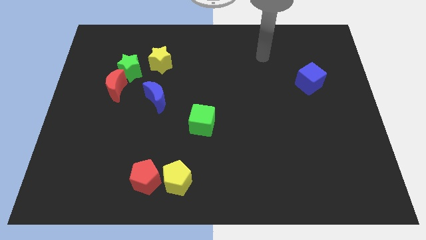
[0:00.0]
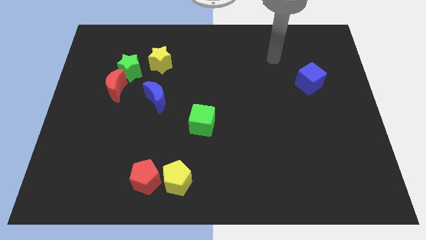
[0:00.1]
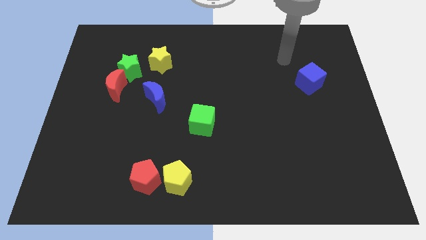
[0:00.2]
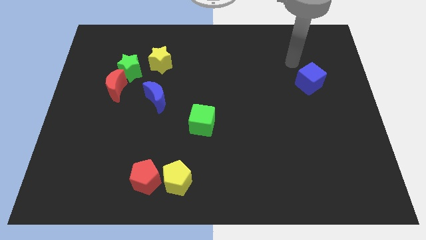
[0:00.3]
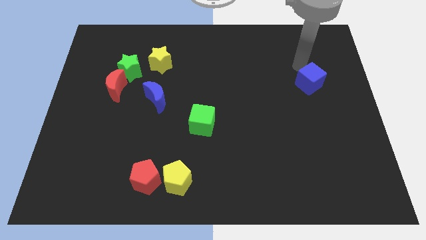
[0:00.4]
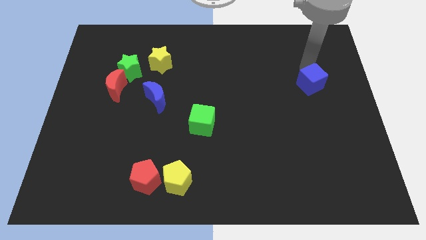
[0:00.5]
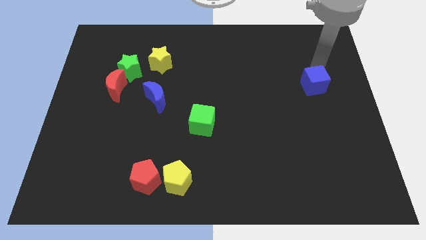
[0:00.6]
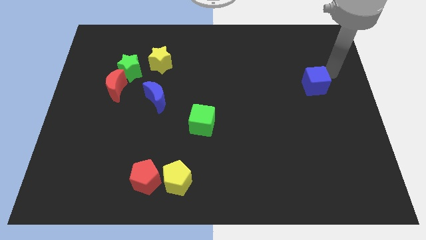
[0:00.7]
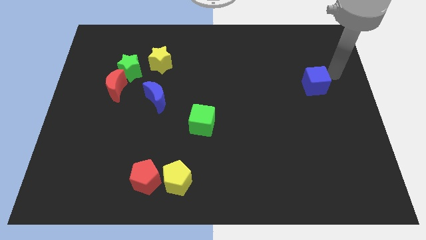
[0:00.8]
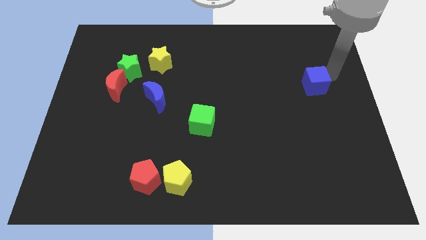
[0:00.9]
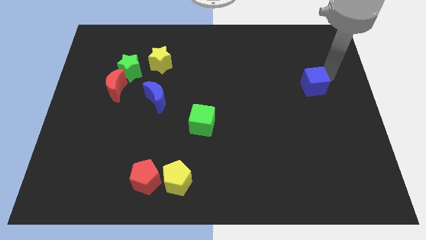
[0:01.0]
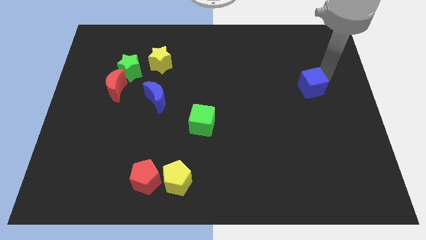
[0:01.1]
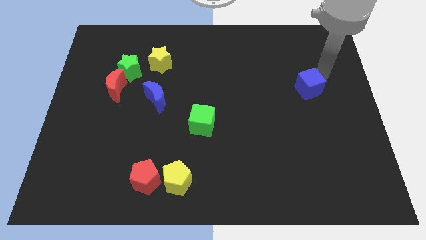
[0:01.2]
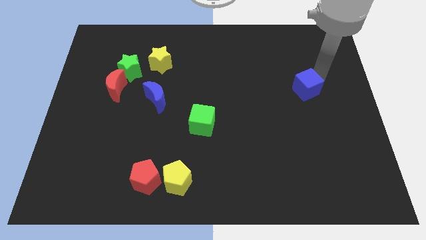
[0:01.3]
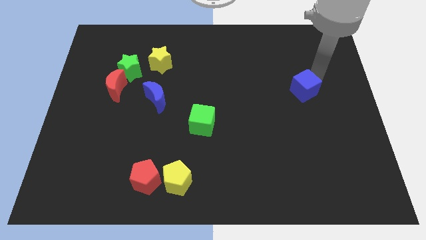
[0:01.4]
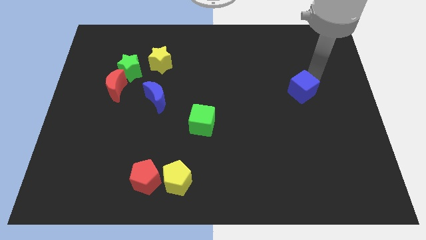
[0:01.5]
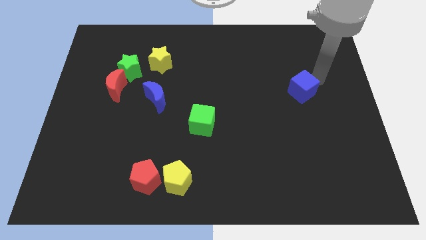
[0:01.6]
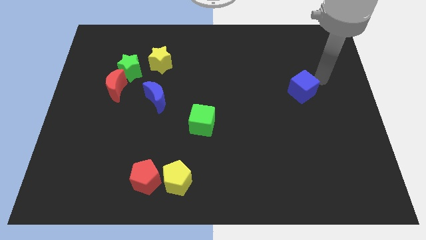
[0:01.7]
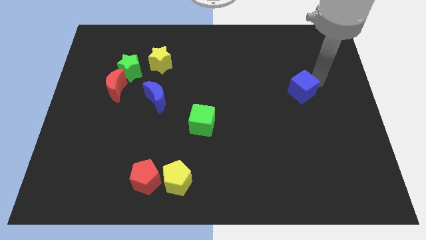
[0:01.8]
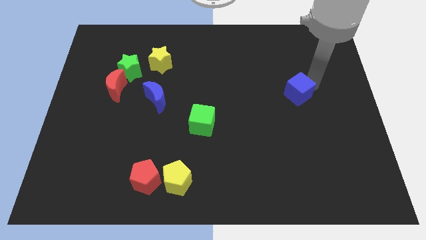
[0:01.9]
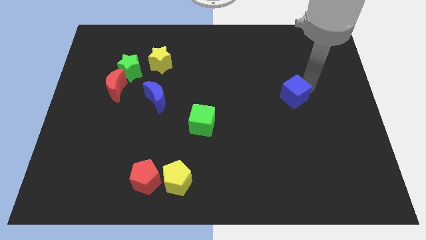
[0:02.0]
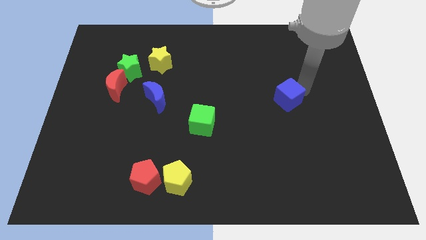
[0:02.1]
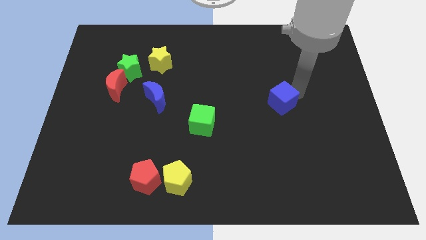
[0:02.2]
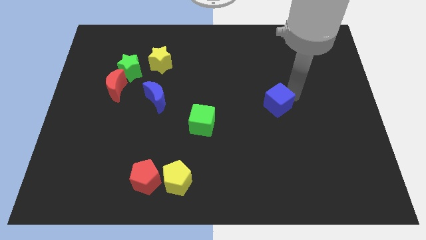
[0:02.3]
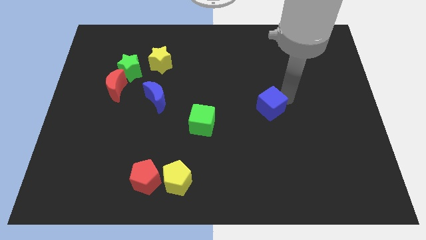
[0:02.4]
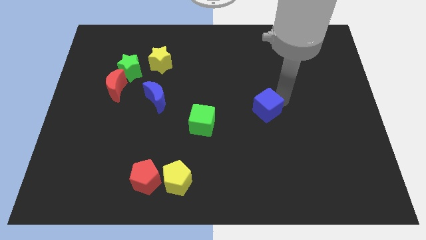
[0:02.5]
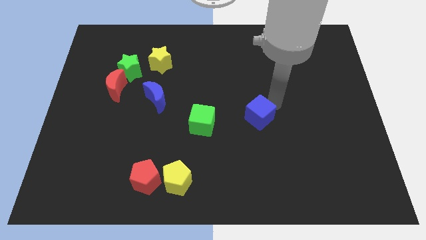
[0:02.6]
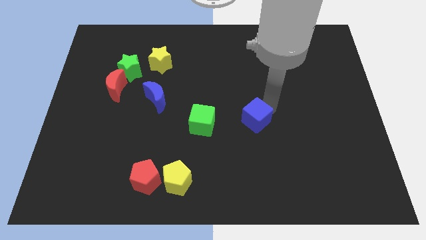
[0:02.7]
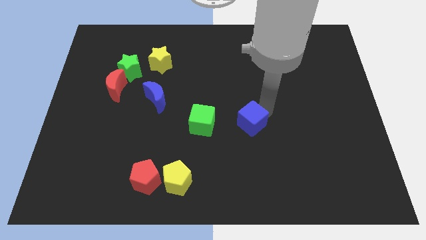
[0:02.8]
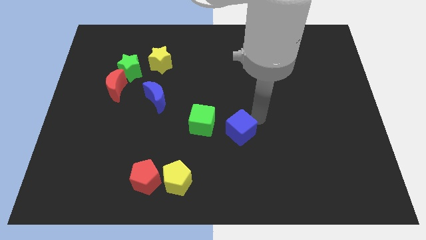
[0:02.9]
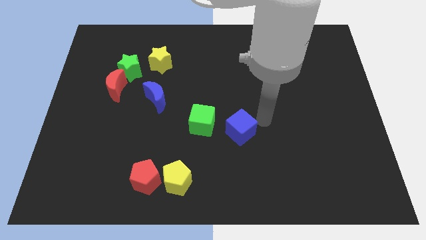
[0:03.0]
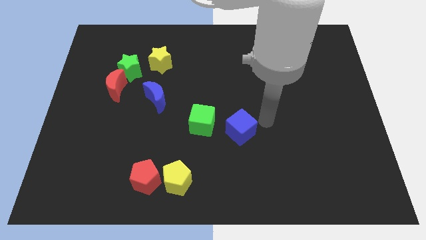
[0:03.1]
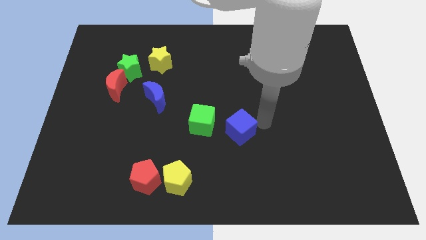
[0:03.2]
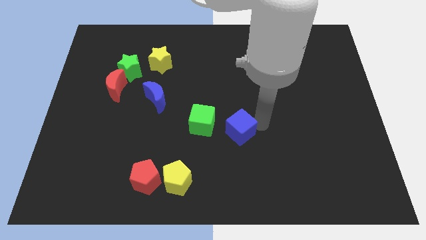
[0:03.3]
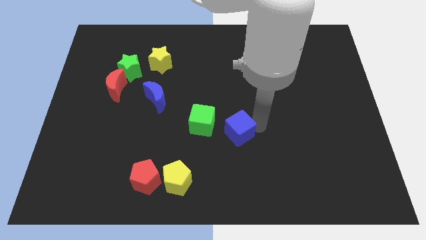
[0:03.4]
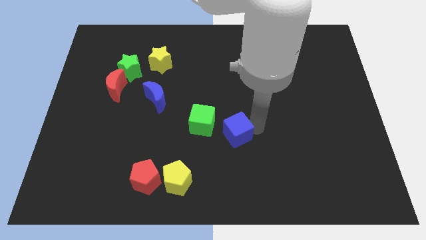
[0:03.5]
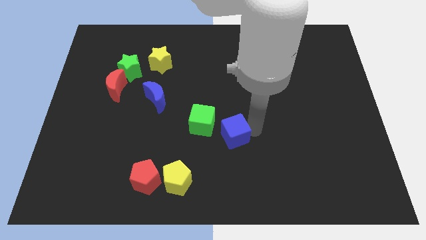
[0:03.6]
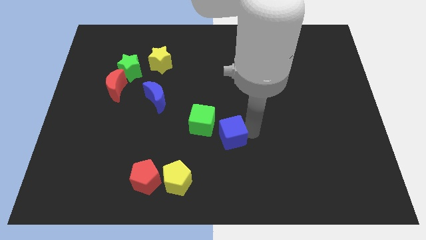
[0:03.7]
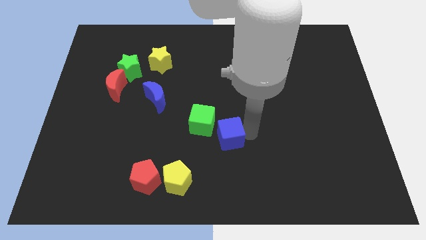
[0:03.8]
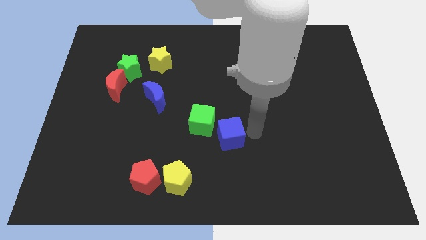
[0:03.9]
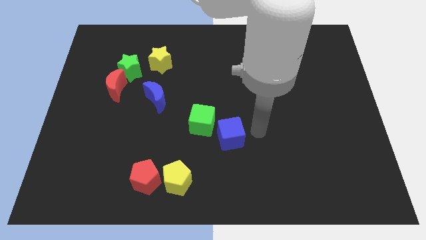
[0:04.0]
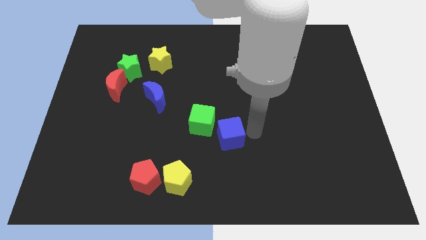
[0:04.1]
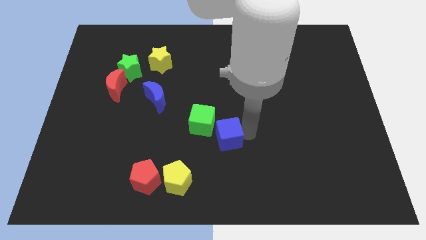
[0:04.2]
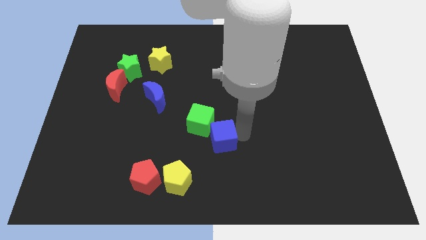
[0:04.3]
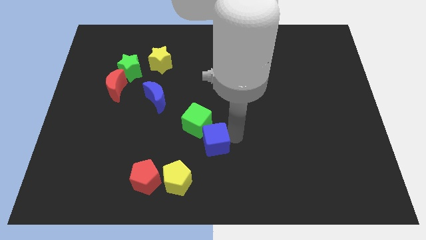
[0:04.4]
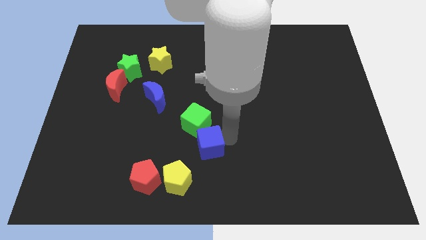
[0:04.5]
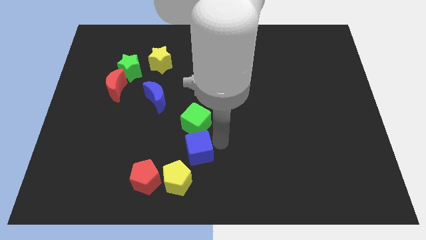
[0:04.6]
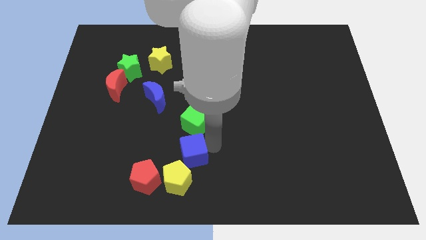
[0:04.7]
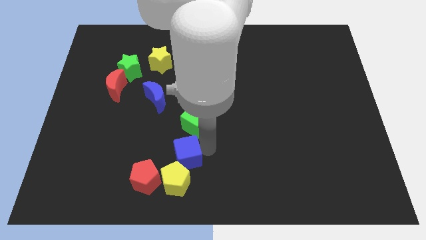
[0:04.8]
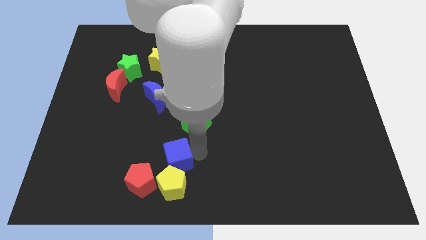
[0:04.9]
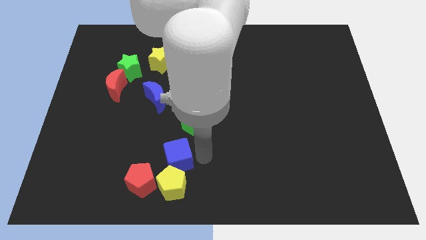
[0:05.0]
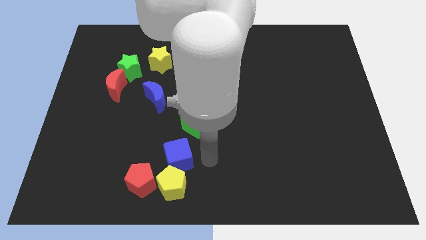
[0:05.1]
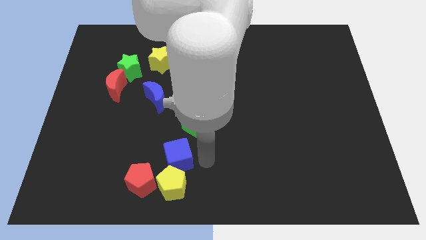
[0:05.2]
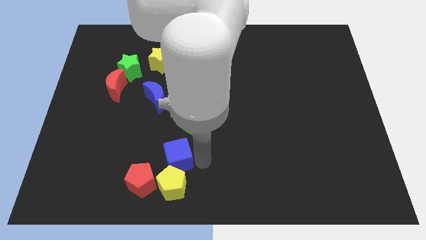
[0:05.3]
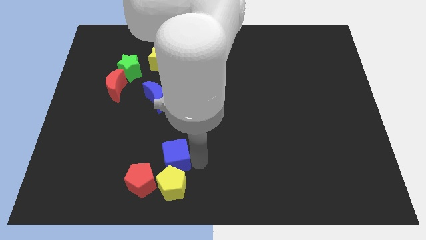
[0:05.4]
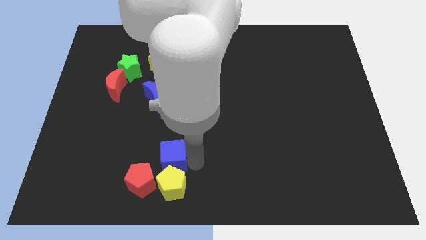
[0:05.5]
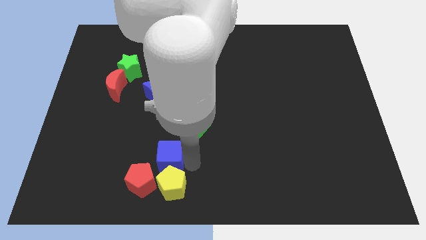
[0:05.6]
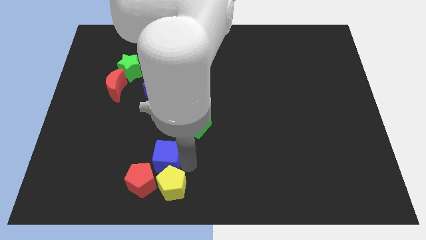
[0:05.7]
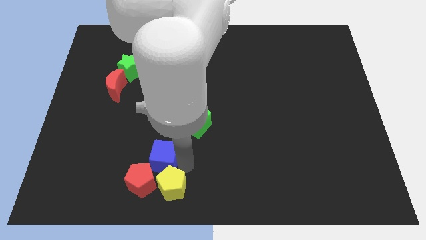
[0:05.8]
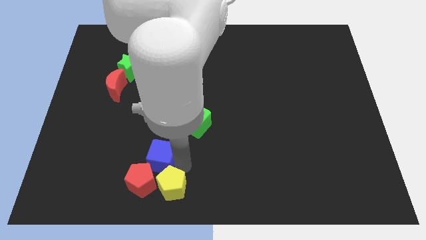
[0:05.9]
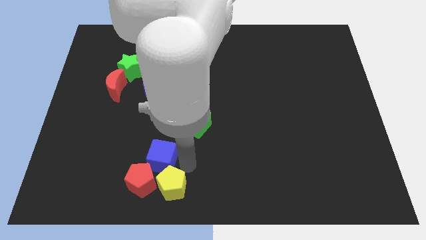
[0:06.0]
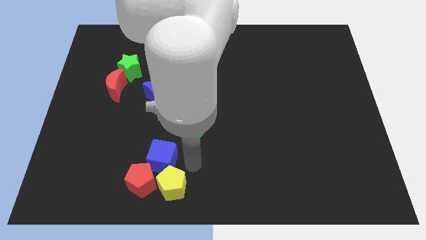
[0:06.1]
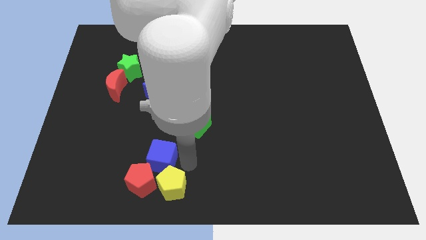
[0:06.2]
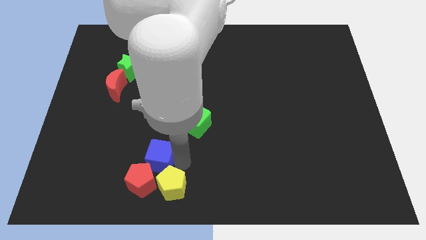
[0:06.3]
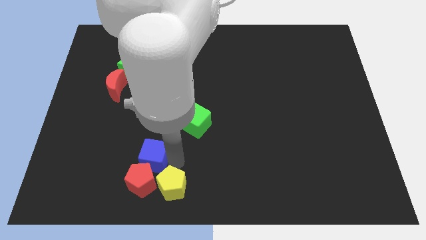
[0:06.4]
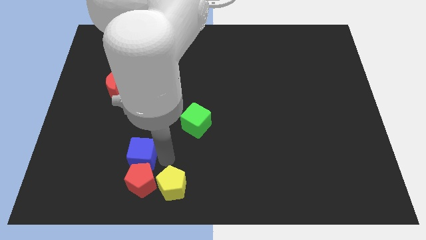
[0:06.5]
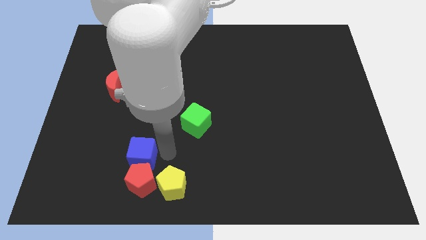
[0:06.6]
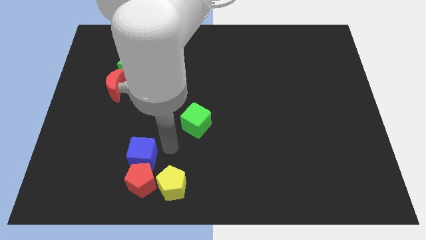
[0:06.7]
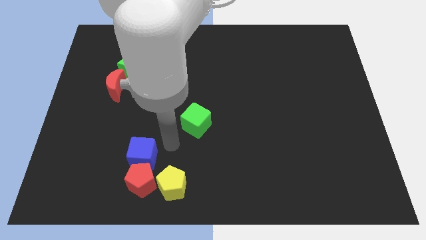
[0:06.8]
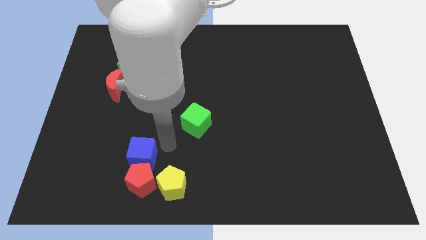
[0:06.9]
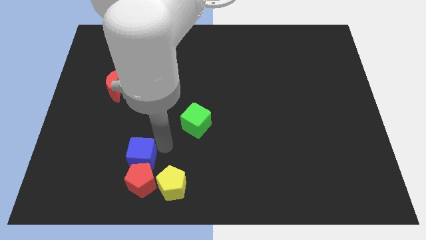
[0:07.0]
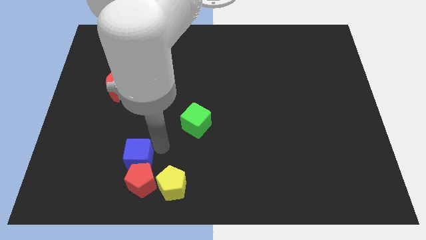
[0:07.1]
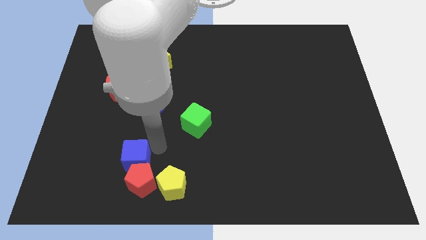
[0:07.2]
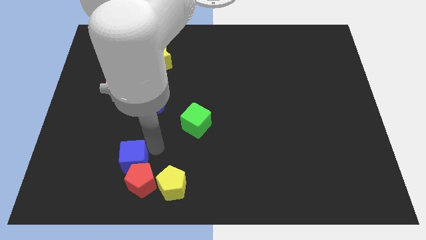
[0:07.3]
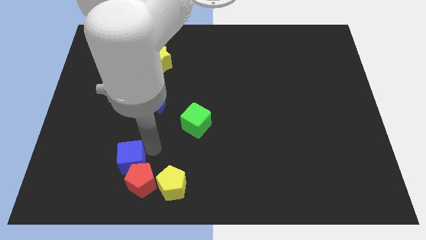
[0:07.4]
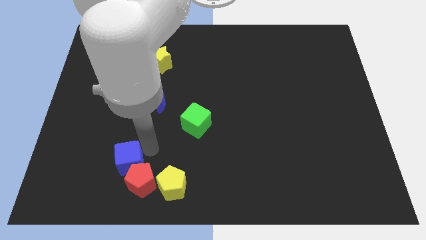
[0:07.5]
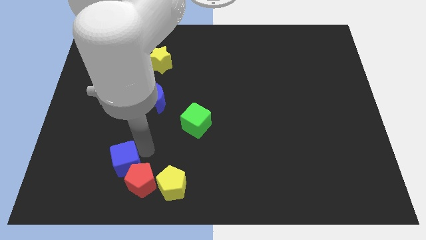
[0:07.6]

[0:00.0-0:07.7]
move the blue cube just left of the red pentagon
